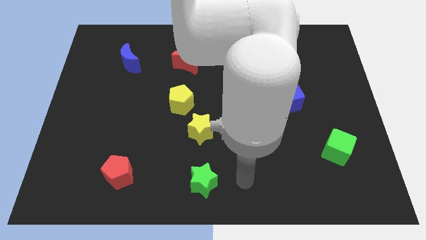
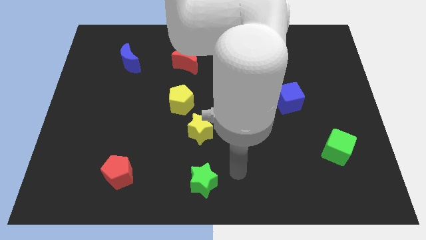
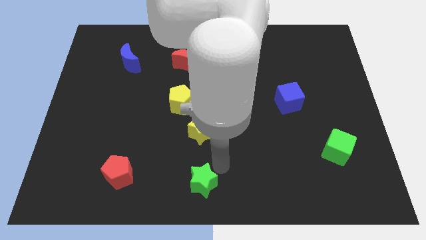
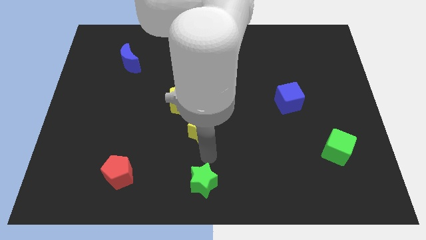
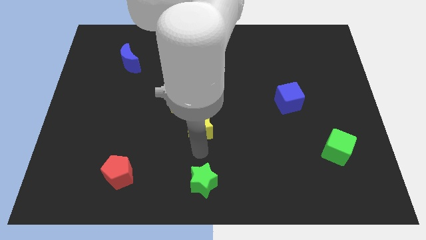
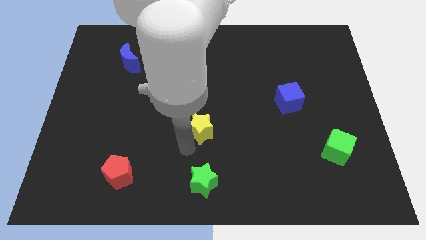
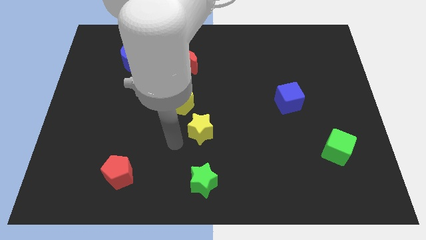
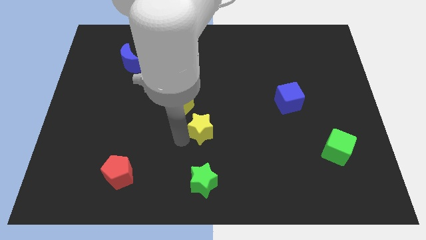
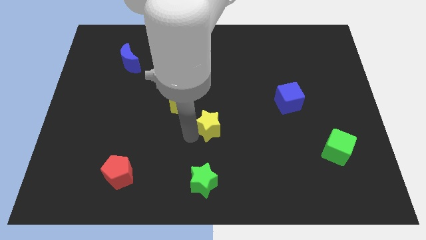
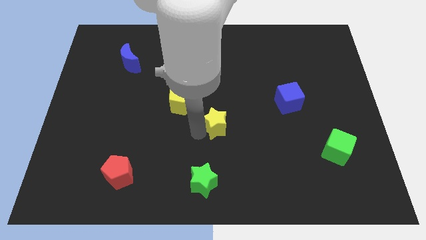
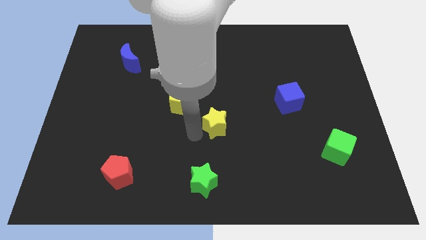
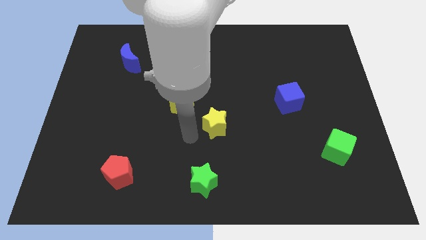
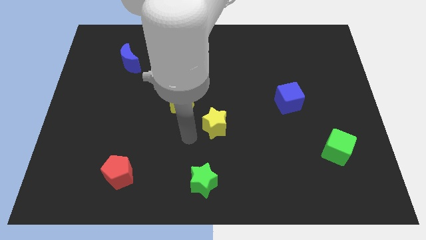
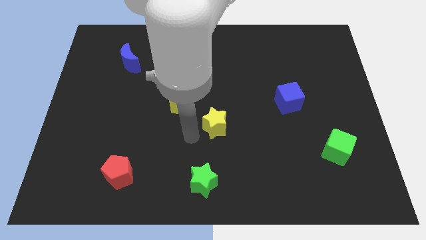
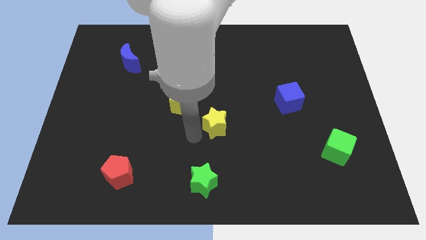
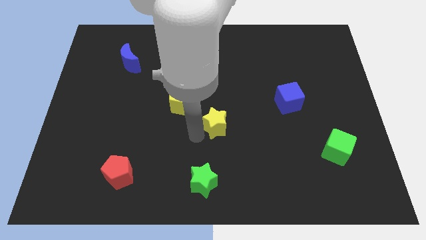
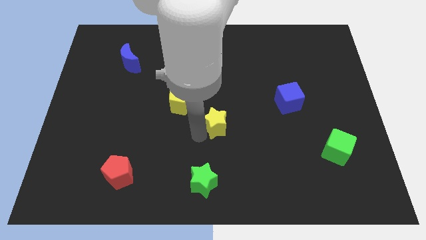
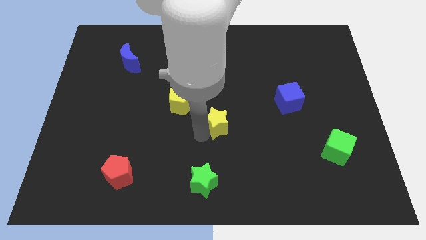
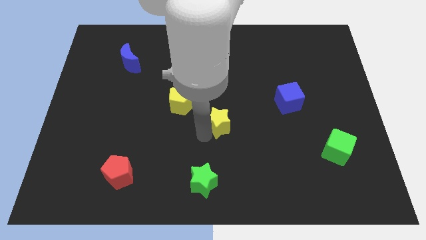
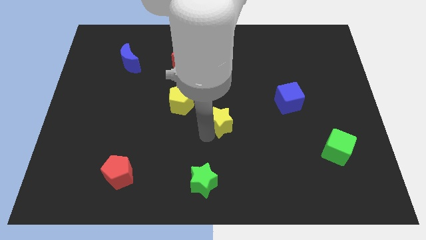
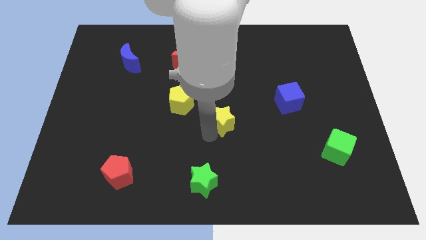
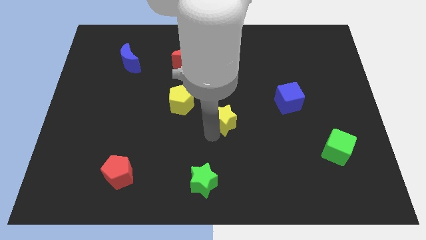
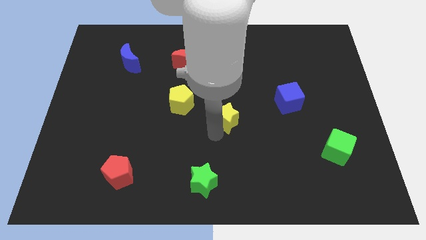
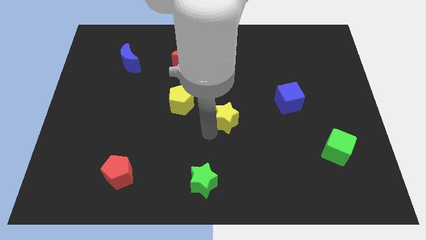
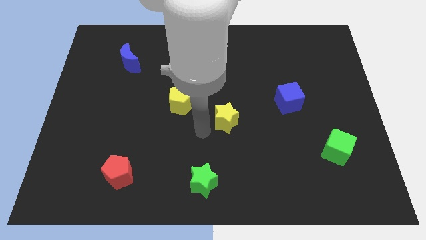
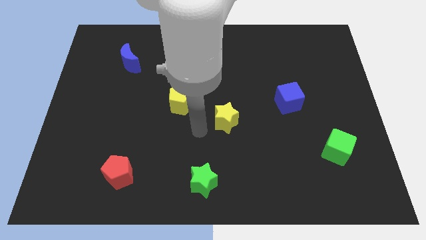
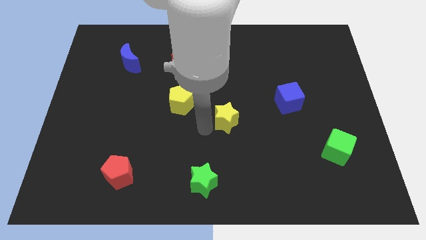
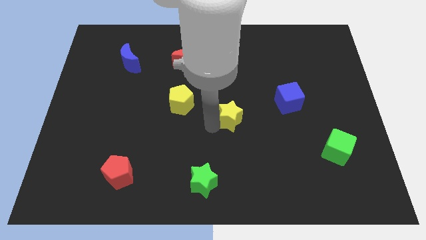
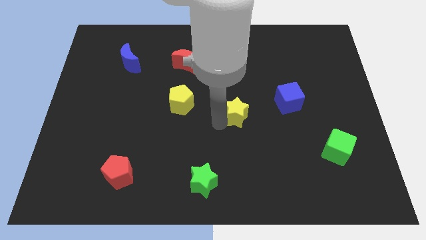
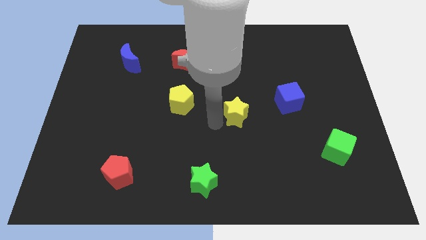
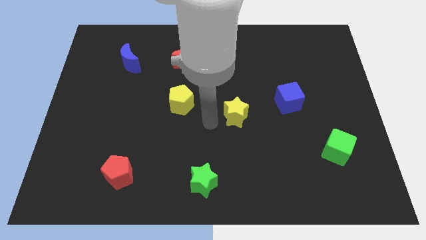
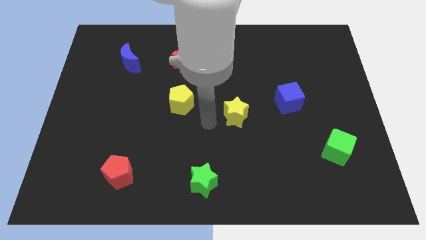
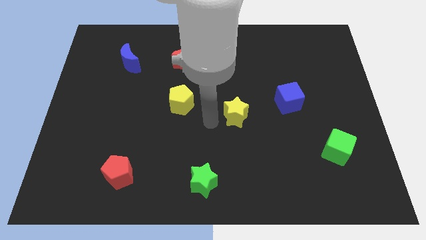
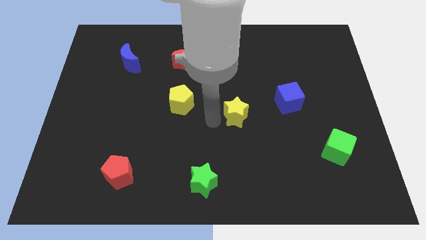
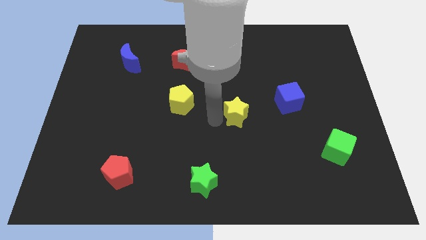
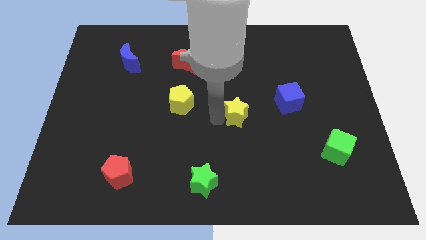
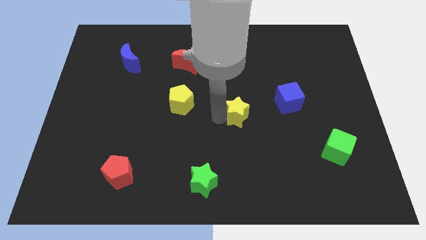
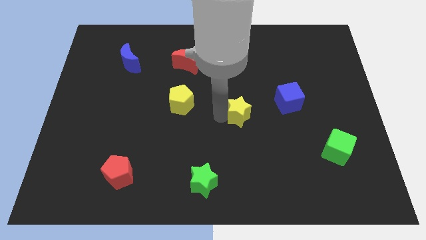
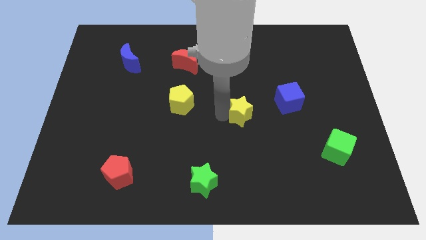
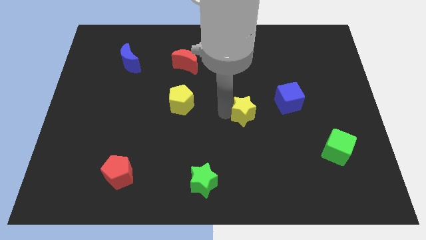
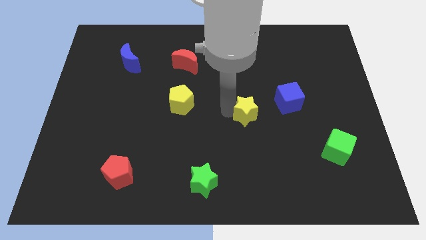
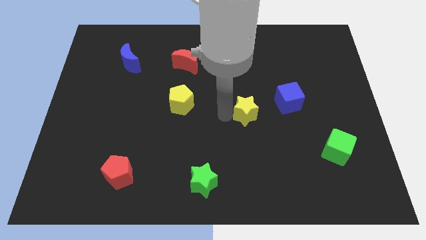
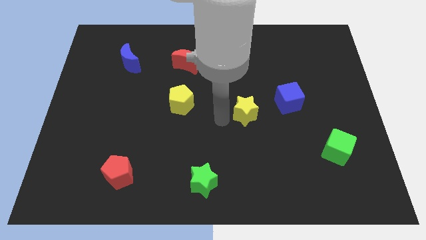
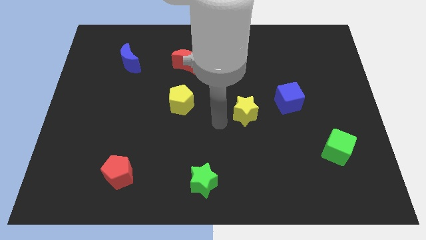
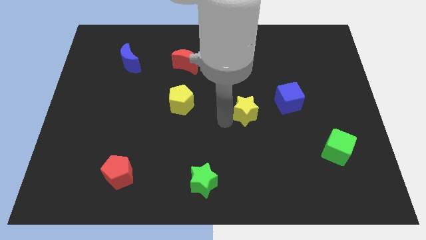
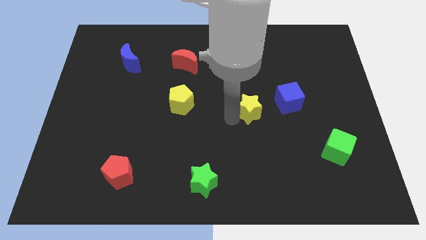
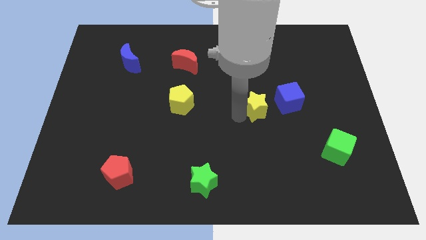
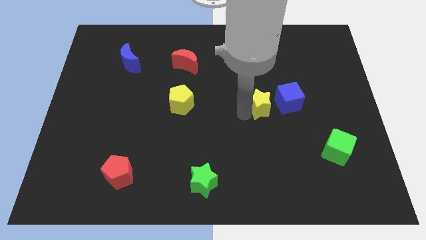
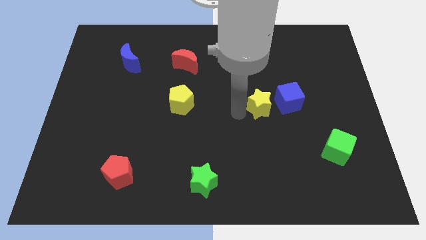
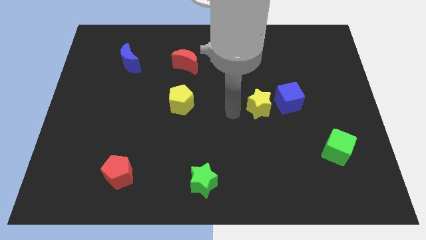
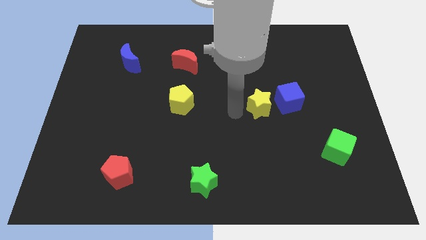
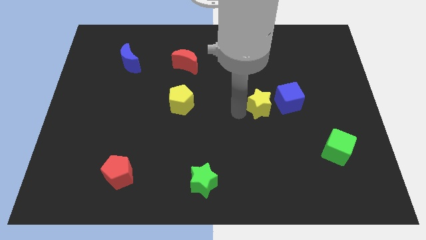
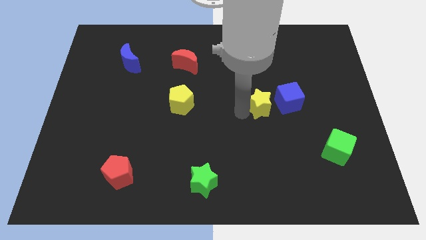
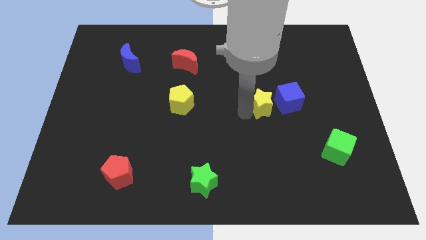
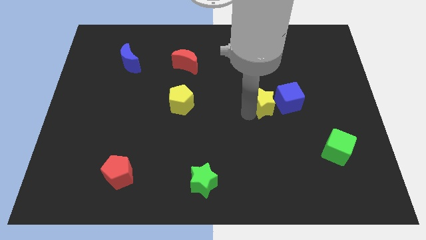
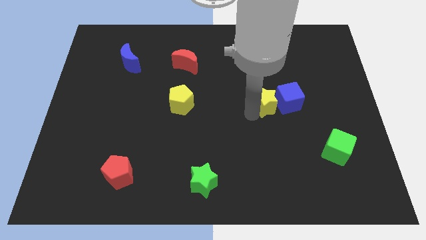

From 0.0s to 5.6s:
push the yellow star to the blue cube

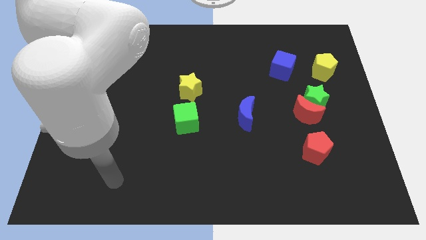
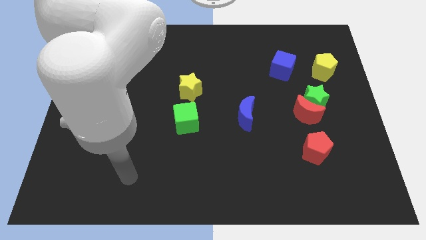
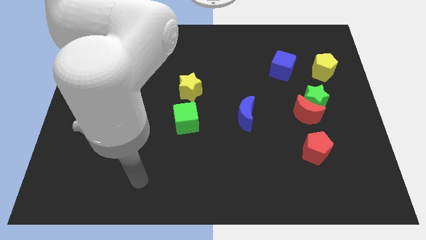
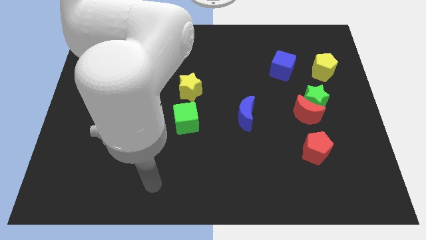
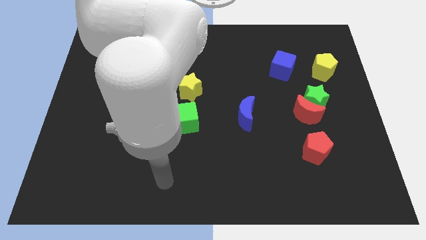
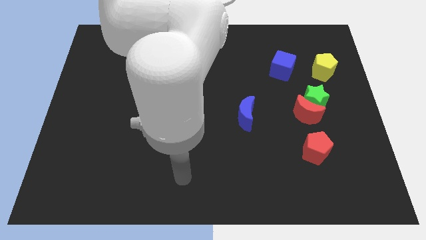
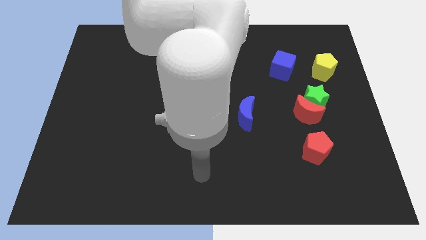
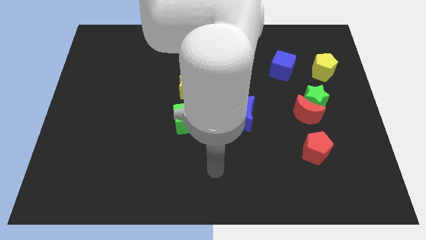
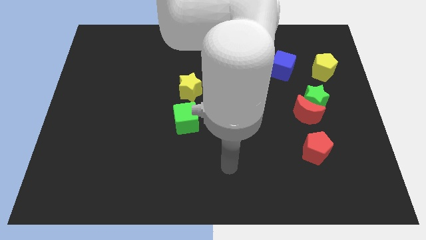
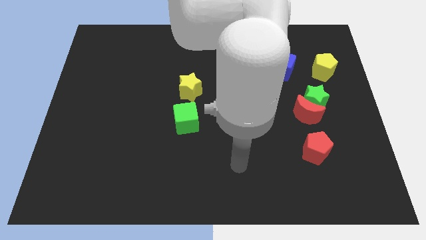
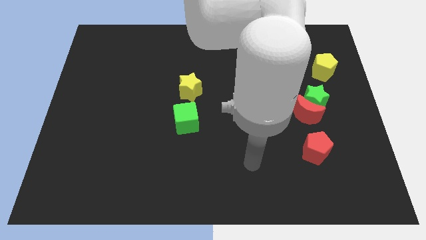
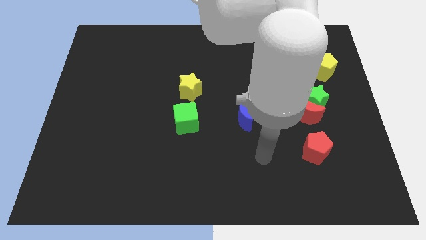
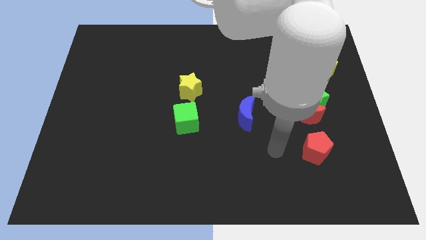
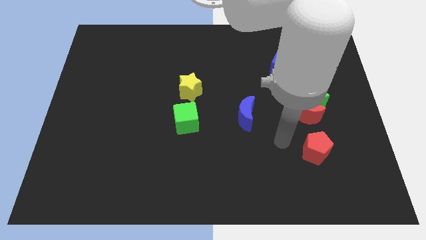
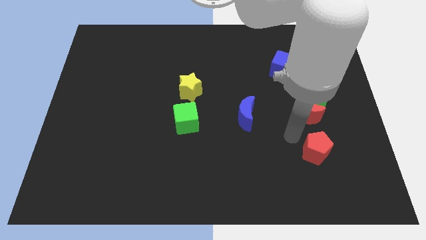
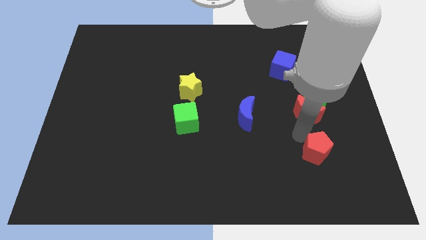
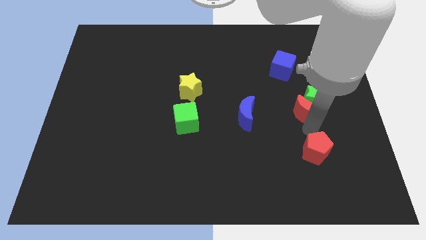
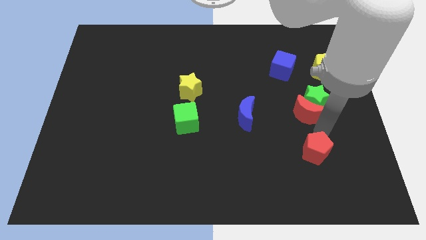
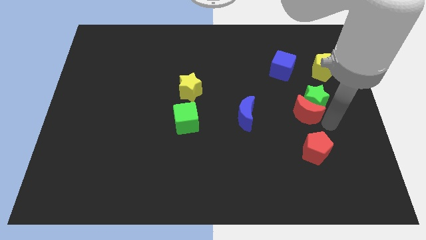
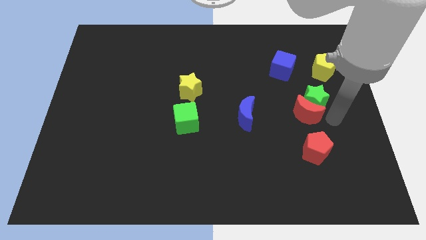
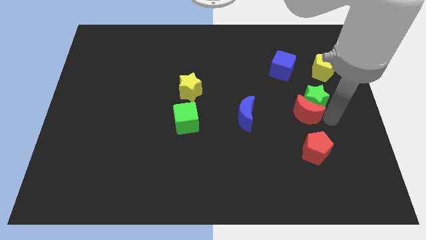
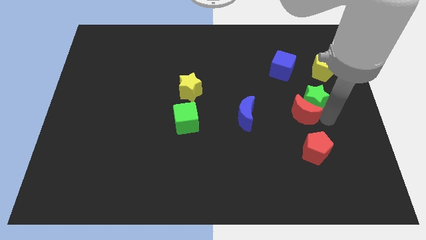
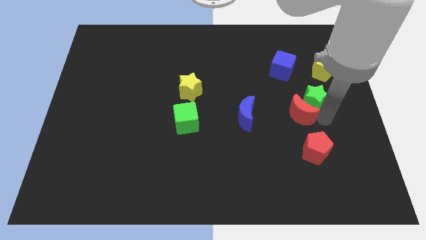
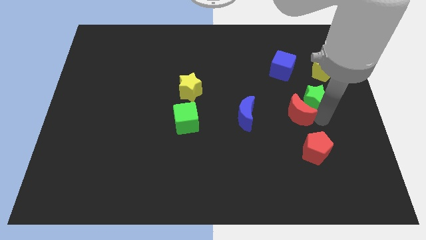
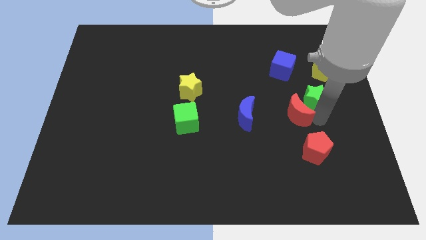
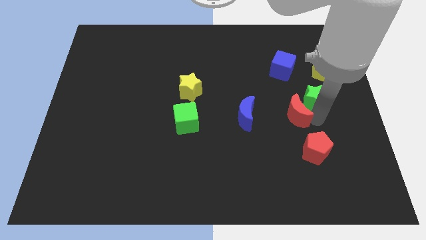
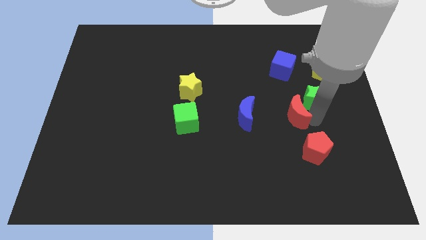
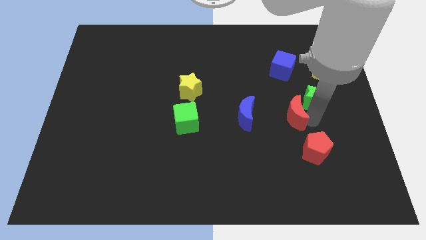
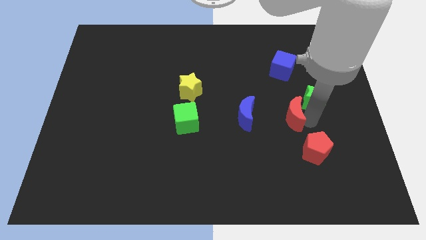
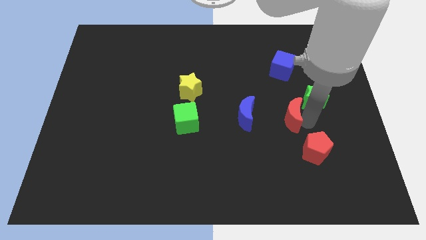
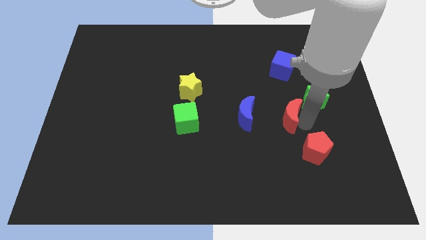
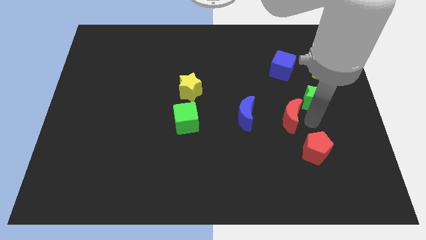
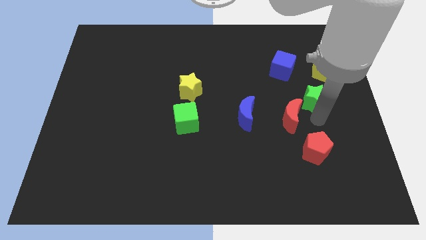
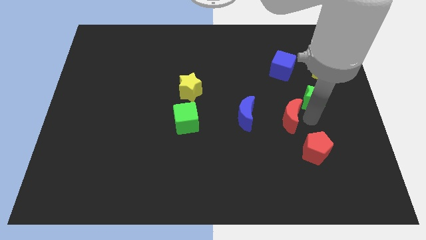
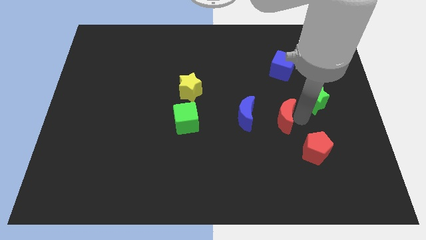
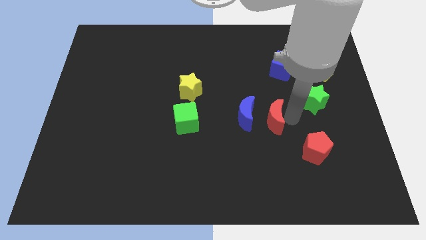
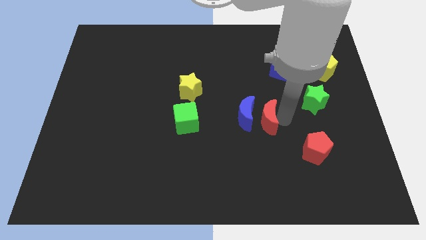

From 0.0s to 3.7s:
push the red moon next to the blue moon
